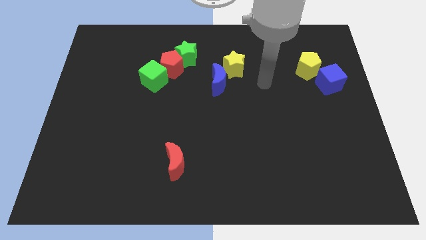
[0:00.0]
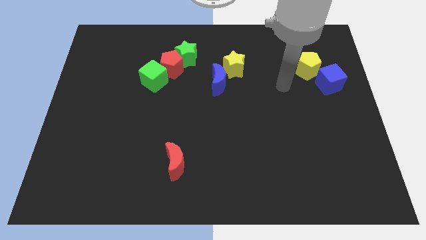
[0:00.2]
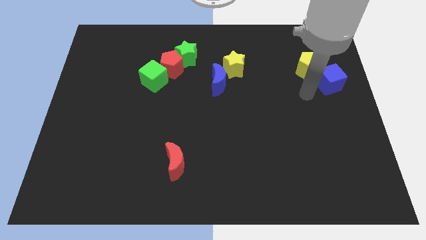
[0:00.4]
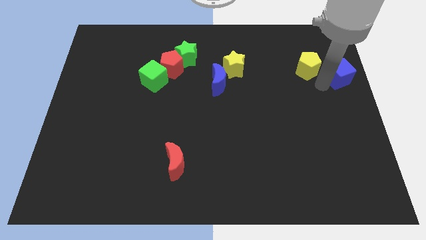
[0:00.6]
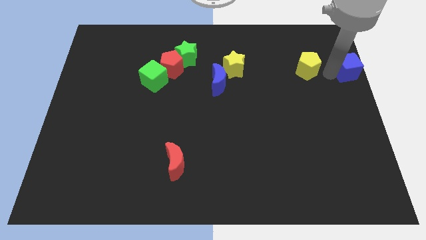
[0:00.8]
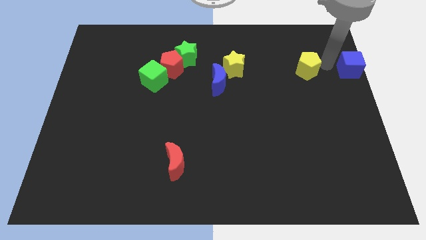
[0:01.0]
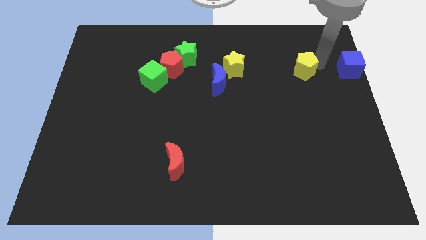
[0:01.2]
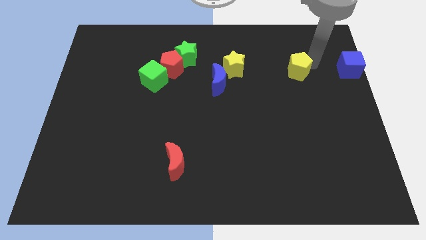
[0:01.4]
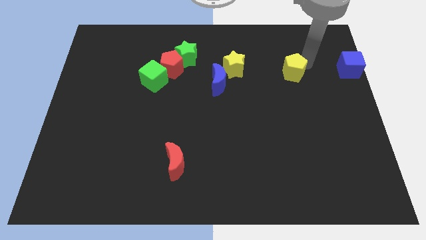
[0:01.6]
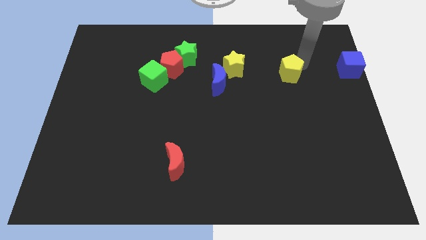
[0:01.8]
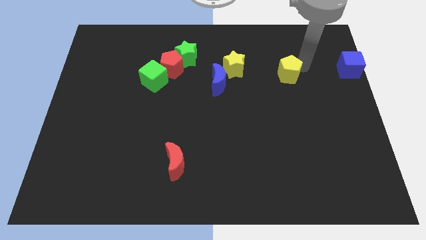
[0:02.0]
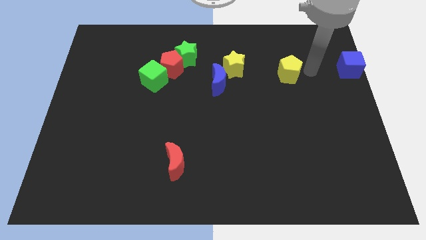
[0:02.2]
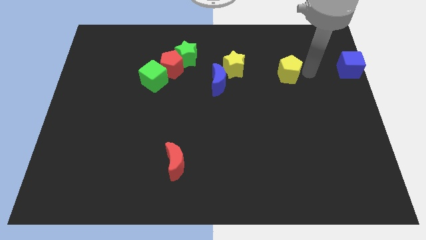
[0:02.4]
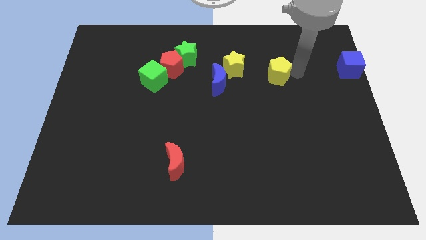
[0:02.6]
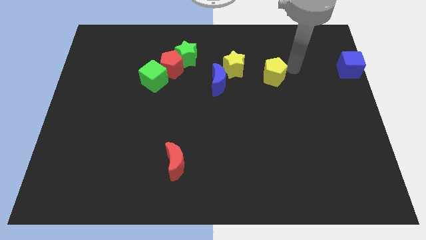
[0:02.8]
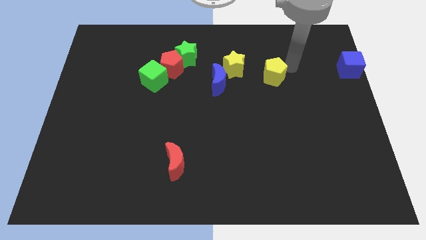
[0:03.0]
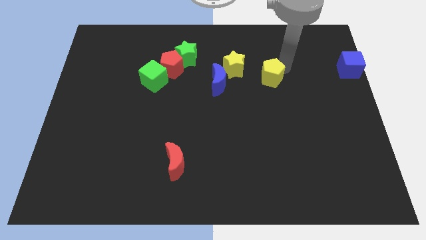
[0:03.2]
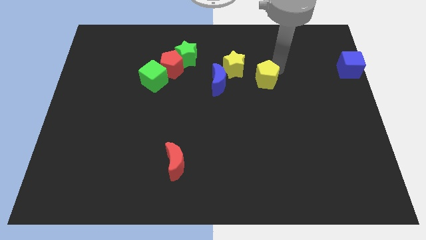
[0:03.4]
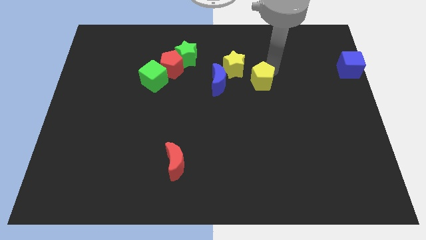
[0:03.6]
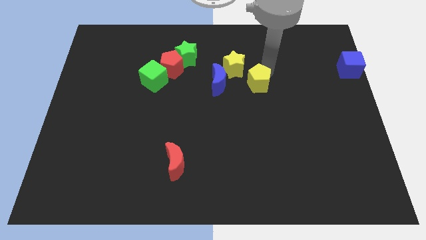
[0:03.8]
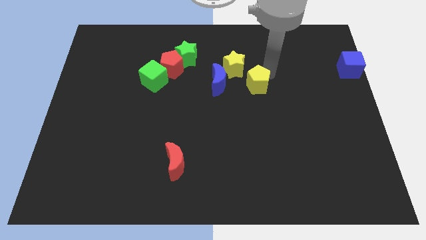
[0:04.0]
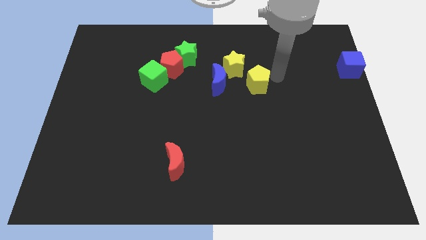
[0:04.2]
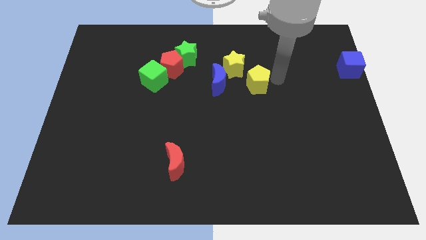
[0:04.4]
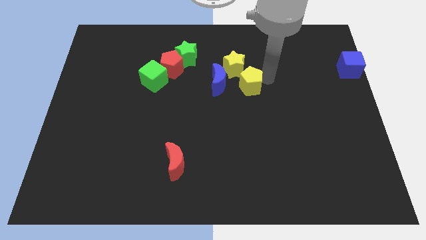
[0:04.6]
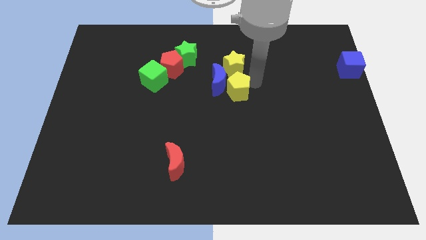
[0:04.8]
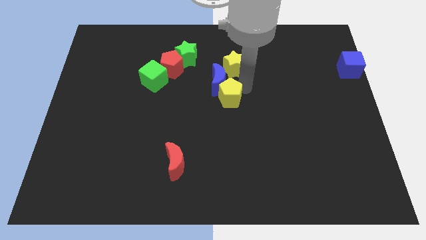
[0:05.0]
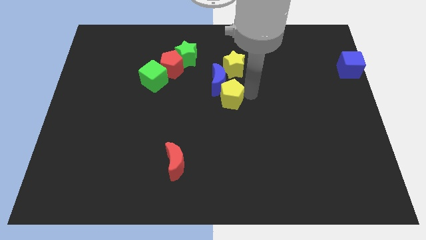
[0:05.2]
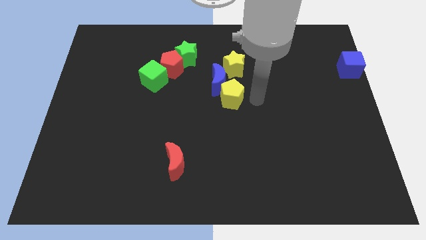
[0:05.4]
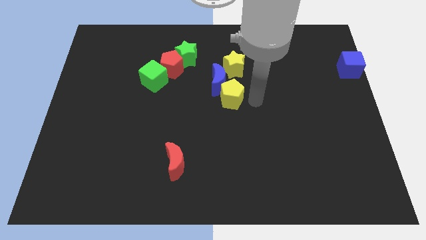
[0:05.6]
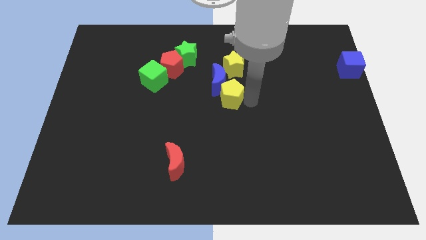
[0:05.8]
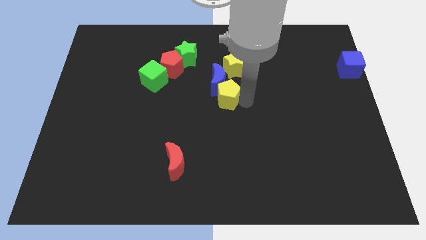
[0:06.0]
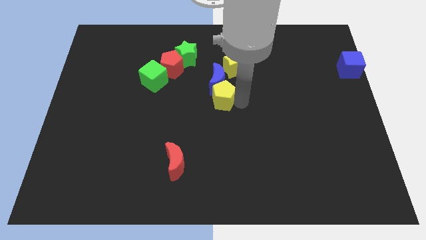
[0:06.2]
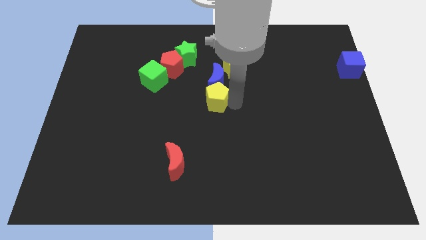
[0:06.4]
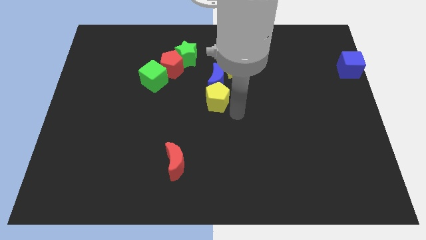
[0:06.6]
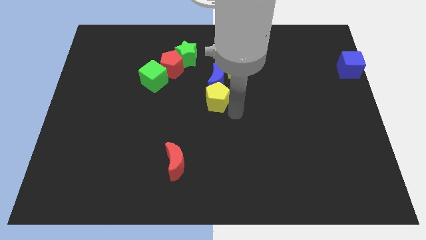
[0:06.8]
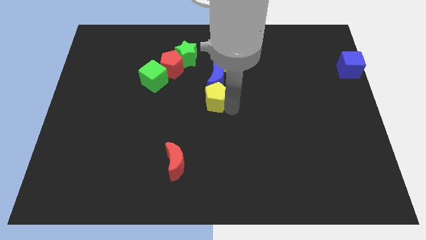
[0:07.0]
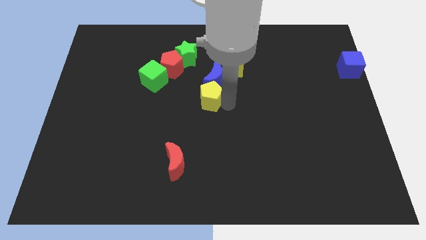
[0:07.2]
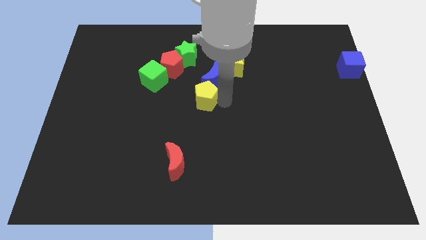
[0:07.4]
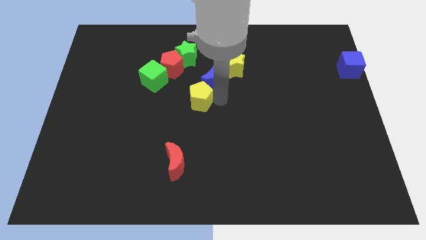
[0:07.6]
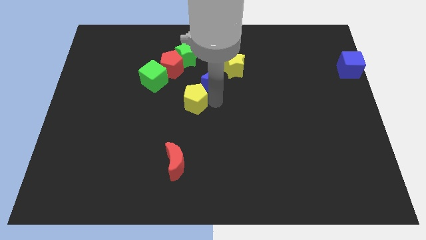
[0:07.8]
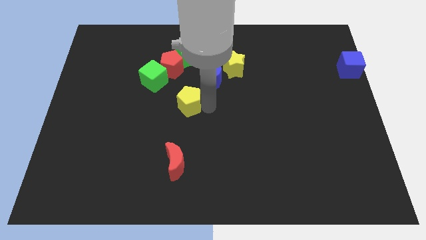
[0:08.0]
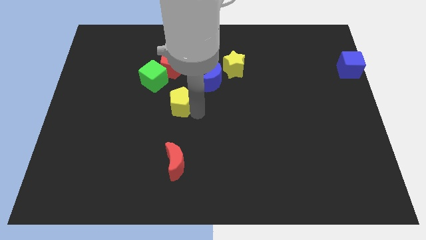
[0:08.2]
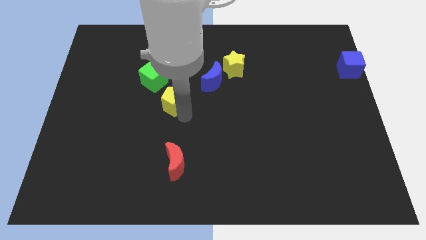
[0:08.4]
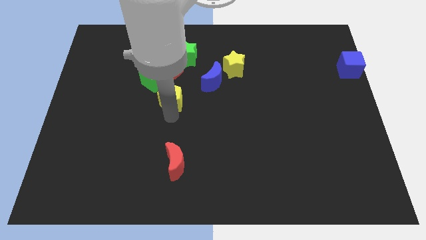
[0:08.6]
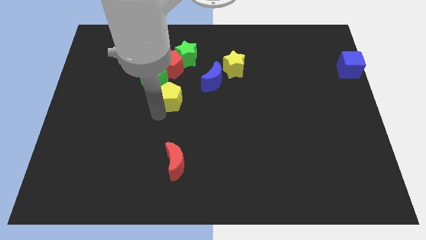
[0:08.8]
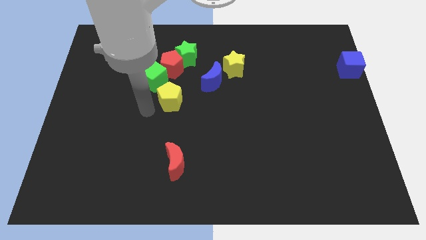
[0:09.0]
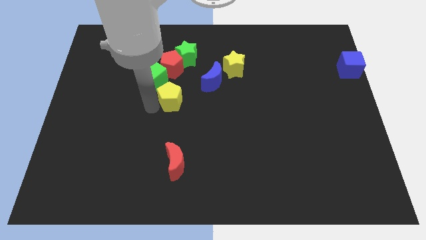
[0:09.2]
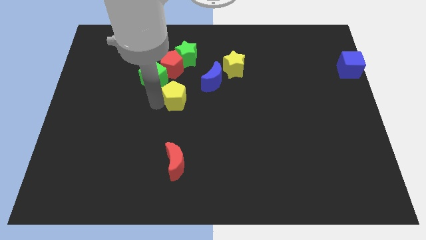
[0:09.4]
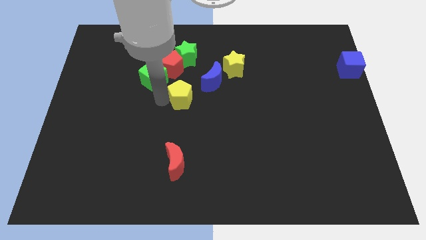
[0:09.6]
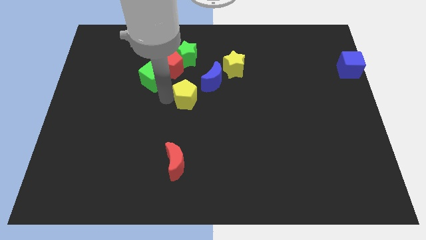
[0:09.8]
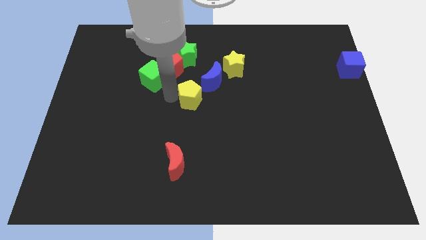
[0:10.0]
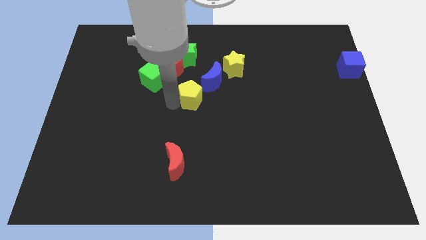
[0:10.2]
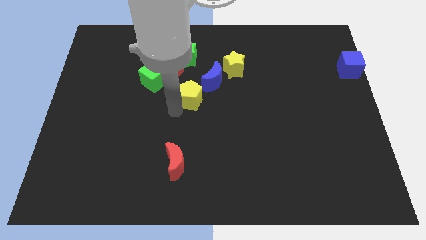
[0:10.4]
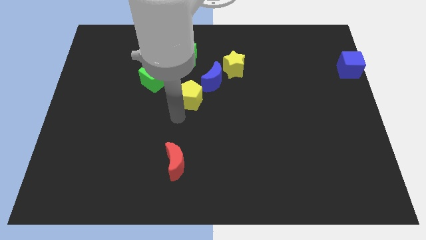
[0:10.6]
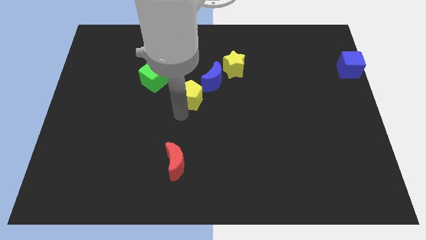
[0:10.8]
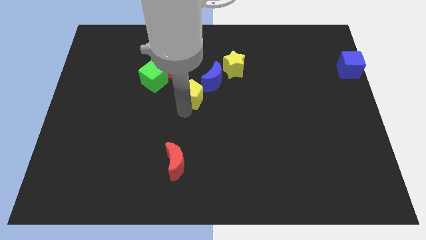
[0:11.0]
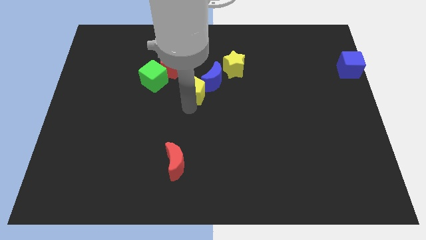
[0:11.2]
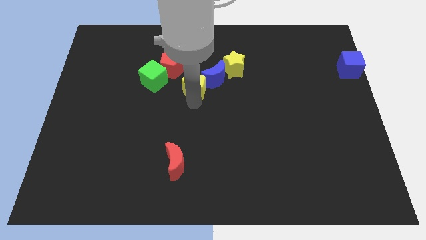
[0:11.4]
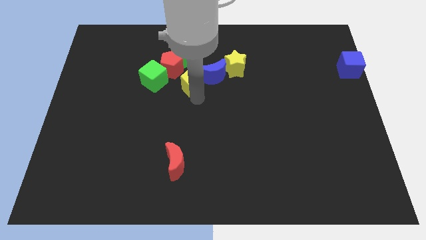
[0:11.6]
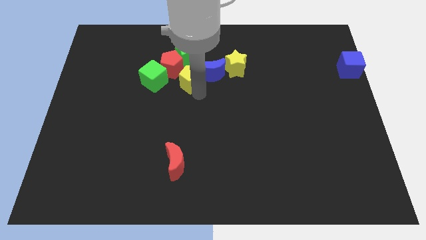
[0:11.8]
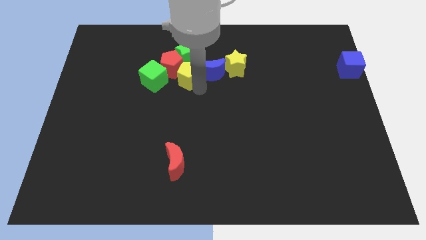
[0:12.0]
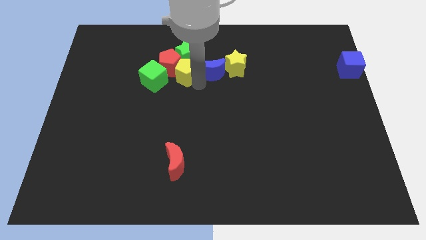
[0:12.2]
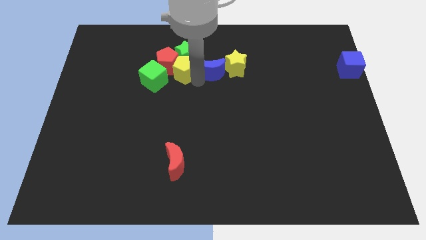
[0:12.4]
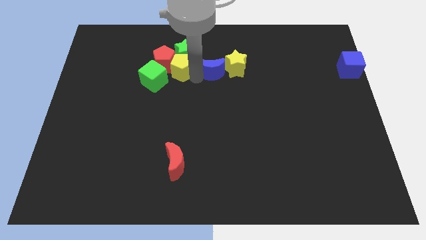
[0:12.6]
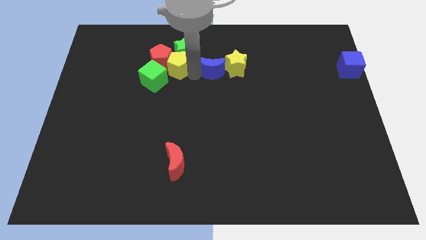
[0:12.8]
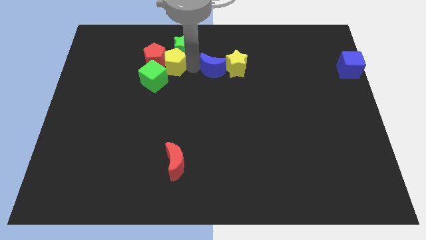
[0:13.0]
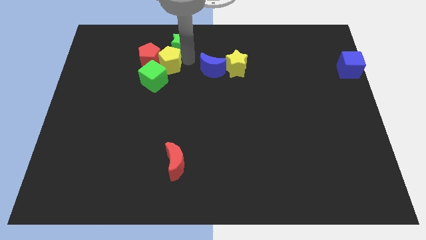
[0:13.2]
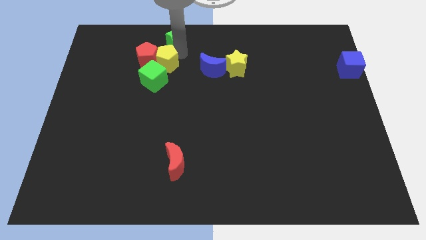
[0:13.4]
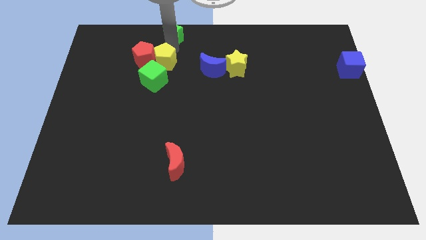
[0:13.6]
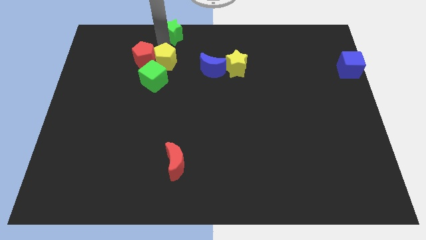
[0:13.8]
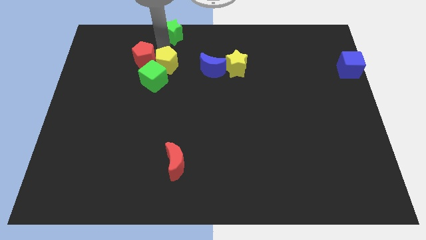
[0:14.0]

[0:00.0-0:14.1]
push the yellow pentagon to the green cube
